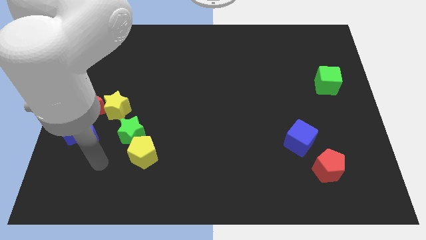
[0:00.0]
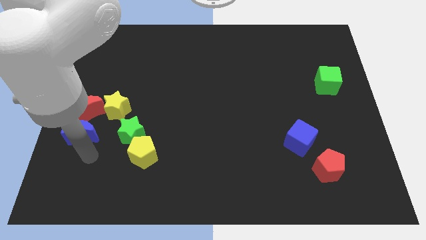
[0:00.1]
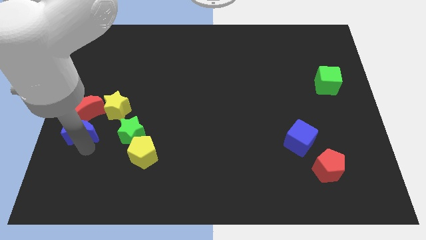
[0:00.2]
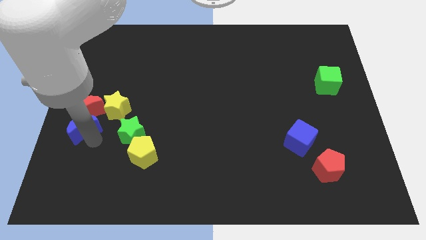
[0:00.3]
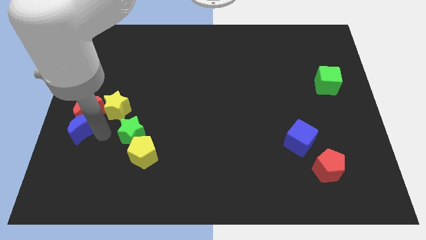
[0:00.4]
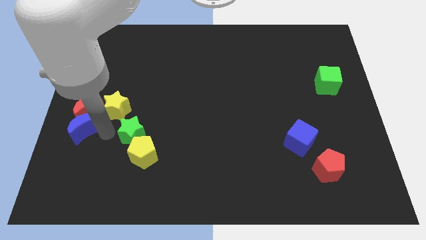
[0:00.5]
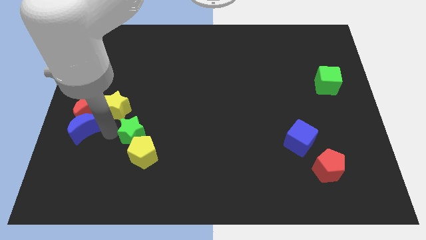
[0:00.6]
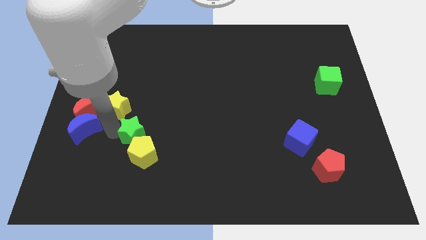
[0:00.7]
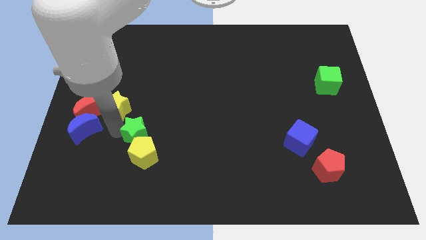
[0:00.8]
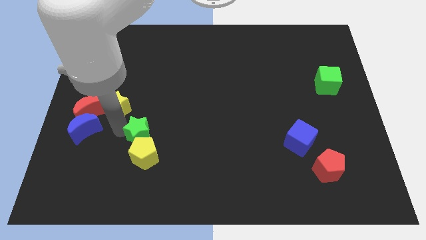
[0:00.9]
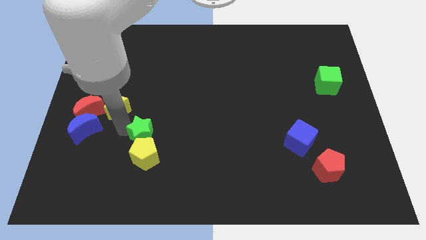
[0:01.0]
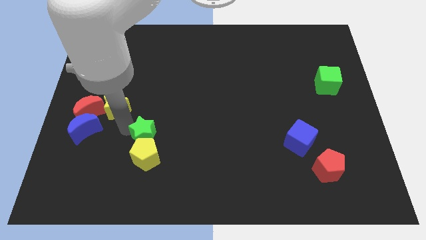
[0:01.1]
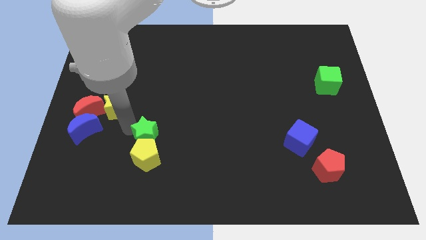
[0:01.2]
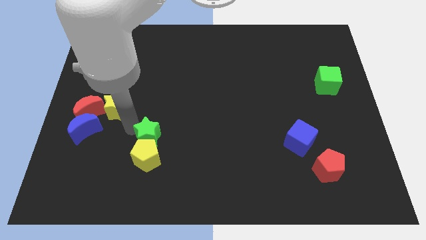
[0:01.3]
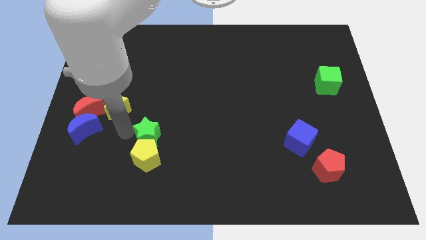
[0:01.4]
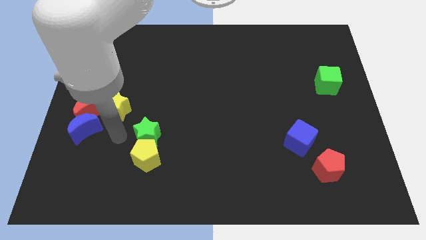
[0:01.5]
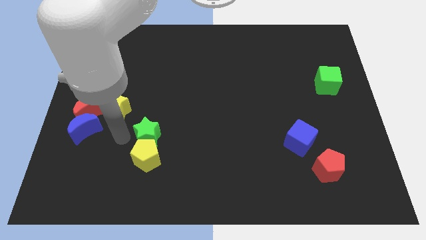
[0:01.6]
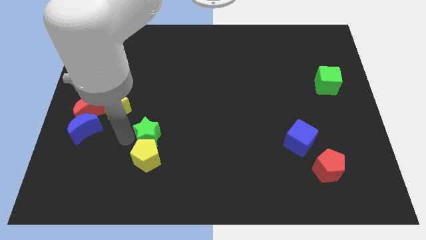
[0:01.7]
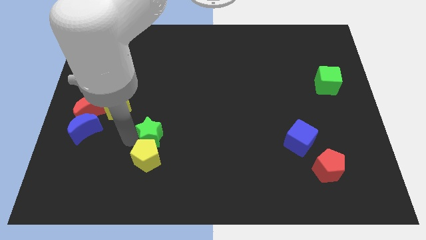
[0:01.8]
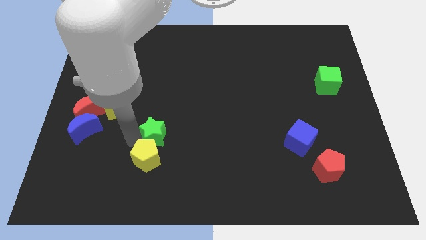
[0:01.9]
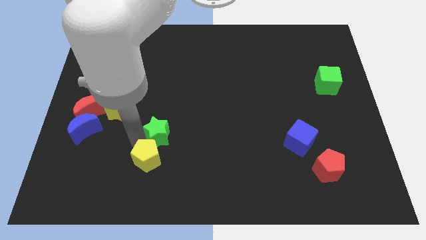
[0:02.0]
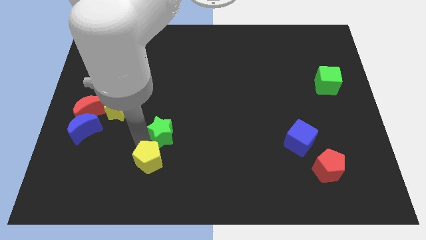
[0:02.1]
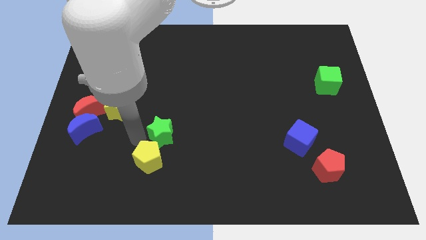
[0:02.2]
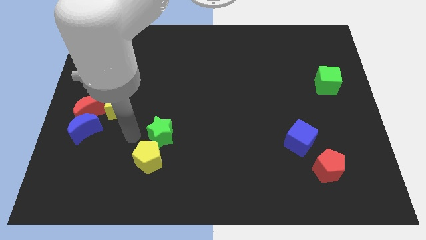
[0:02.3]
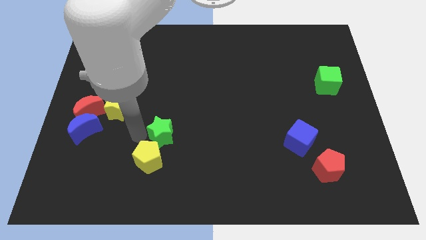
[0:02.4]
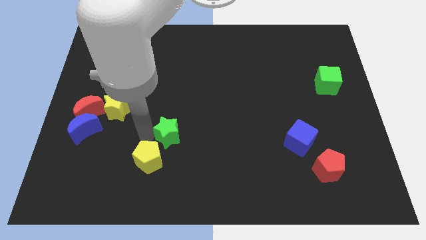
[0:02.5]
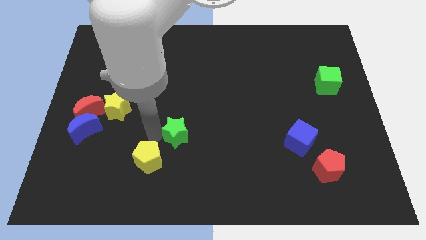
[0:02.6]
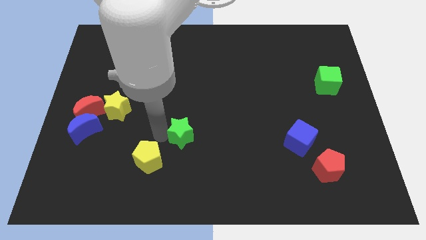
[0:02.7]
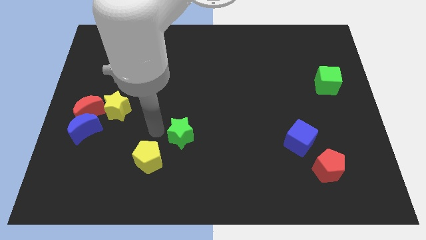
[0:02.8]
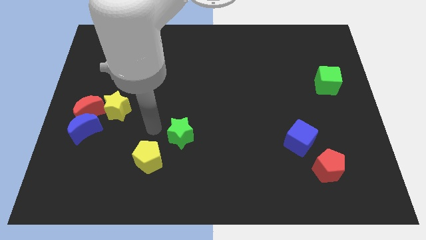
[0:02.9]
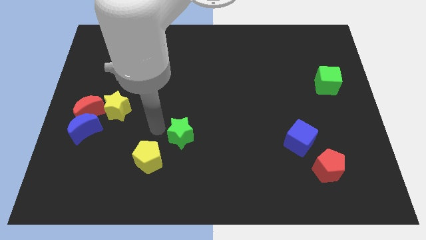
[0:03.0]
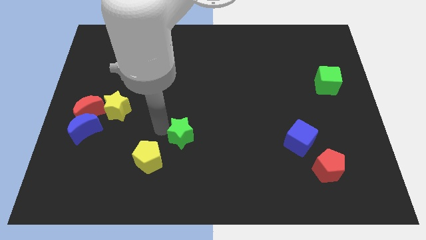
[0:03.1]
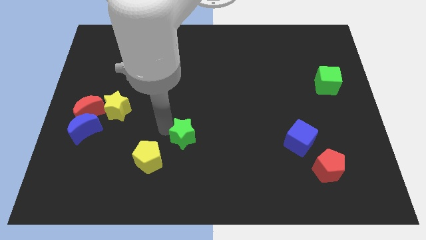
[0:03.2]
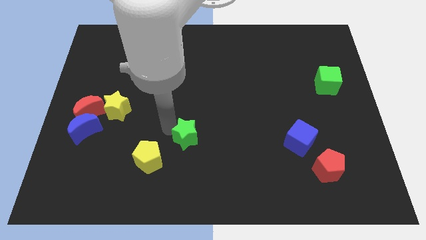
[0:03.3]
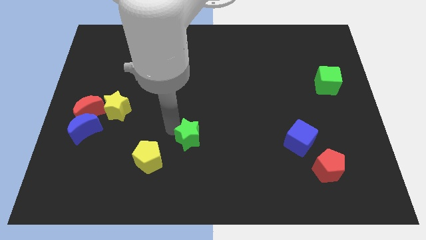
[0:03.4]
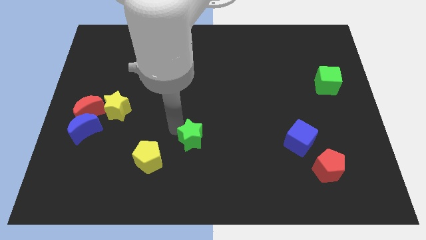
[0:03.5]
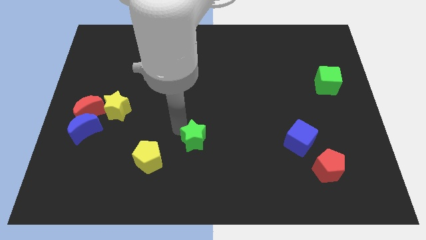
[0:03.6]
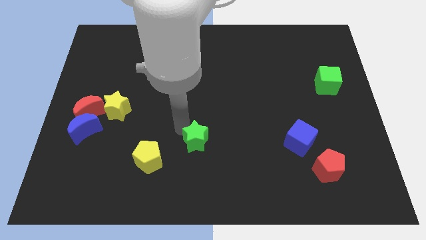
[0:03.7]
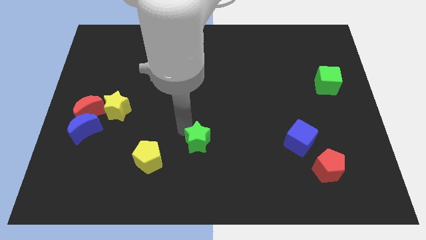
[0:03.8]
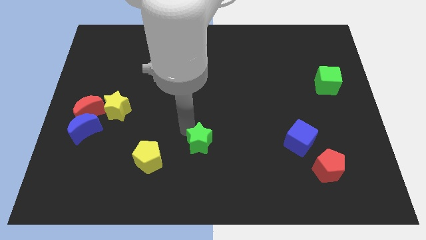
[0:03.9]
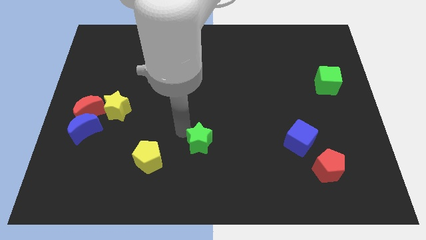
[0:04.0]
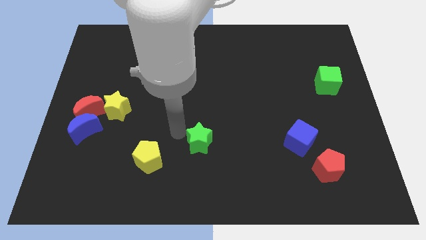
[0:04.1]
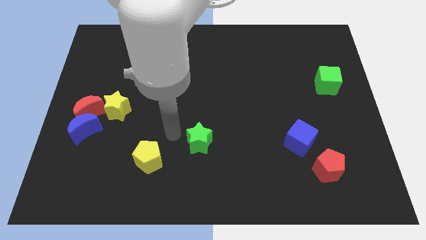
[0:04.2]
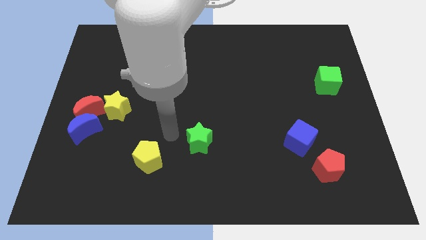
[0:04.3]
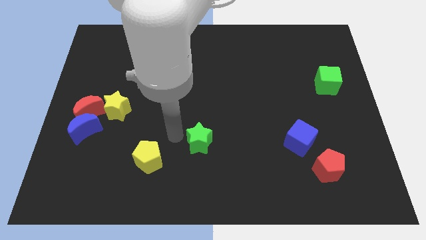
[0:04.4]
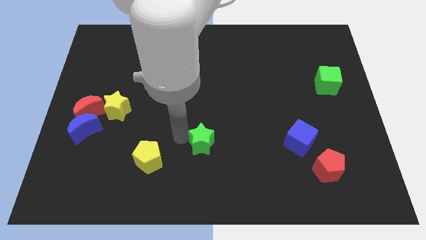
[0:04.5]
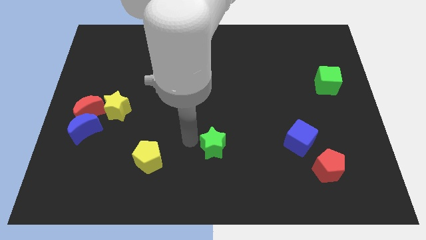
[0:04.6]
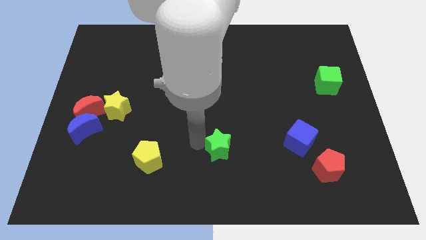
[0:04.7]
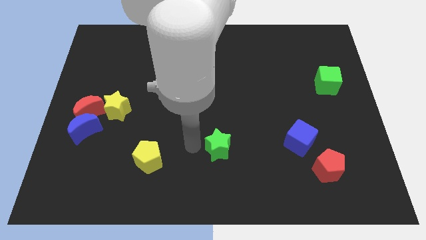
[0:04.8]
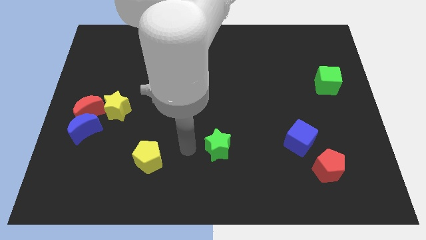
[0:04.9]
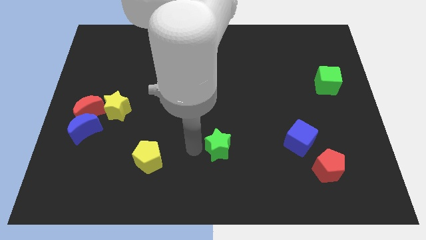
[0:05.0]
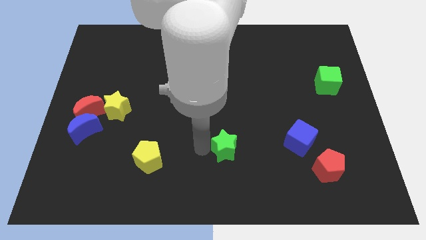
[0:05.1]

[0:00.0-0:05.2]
move the green star to the right

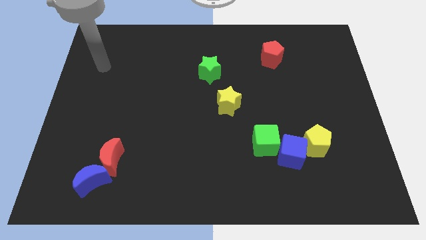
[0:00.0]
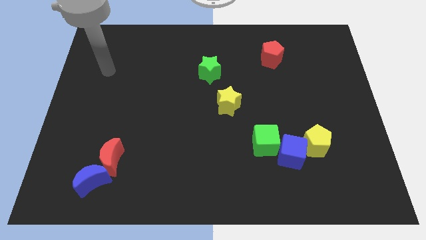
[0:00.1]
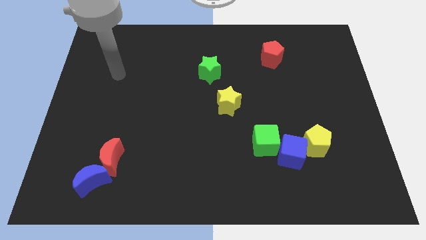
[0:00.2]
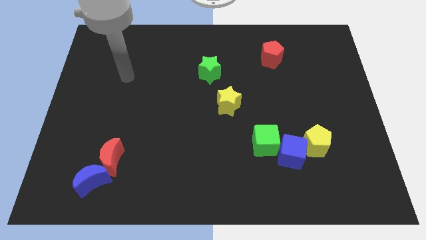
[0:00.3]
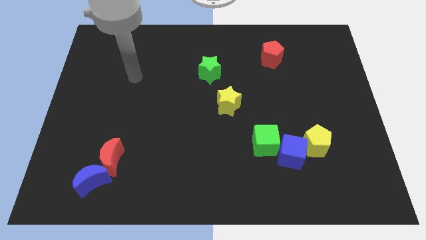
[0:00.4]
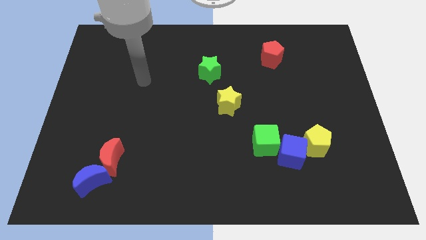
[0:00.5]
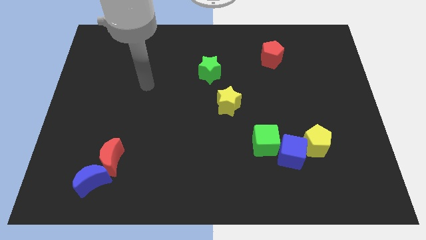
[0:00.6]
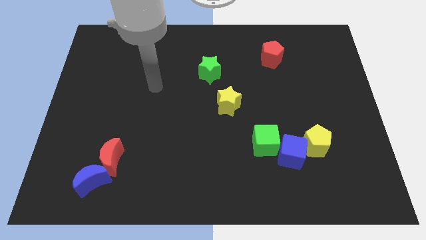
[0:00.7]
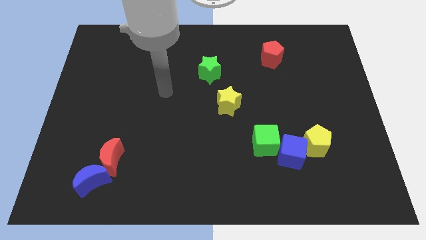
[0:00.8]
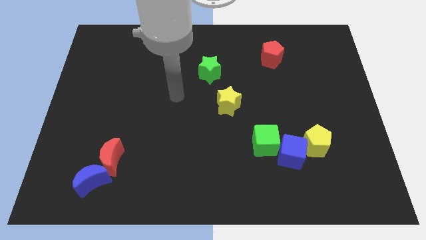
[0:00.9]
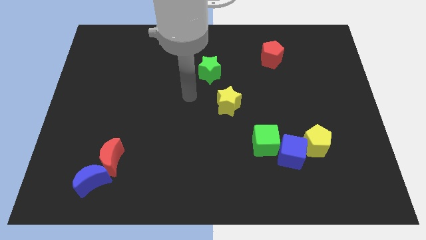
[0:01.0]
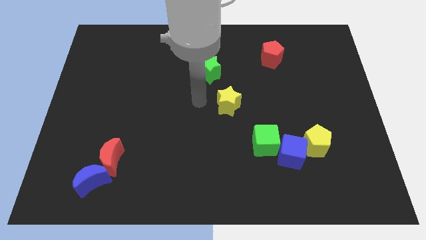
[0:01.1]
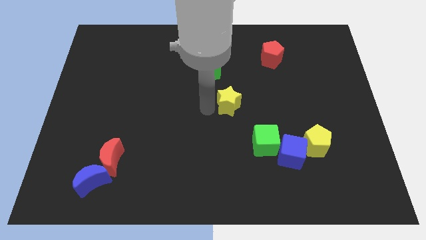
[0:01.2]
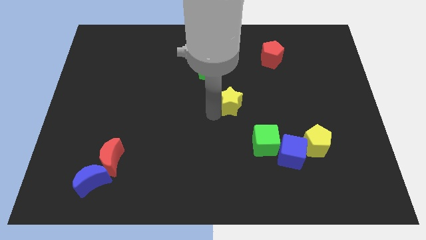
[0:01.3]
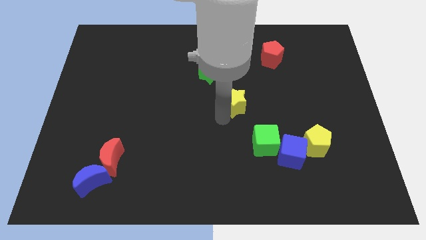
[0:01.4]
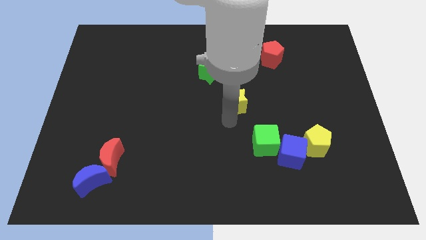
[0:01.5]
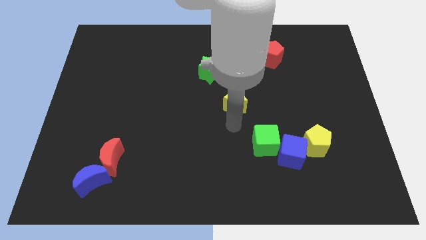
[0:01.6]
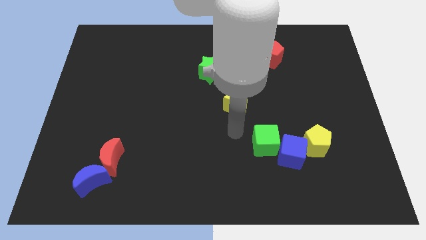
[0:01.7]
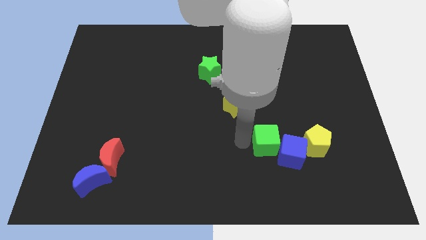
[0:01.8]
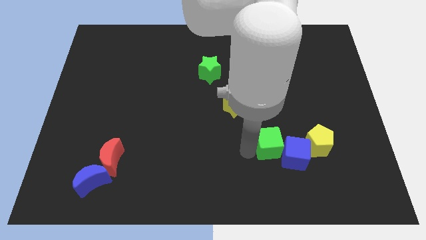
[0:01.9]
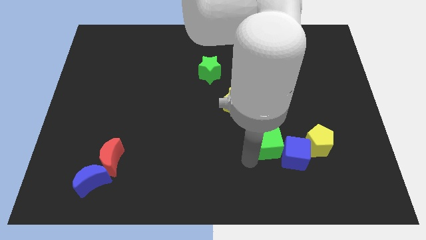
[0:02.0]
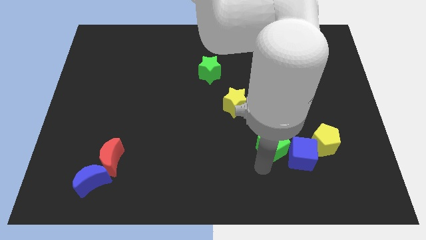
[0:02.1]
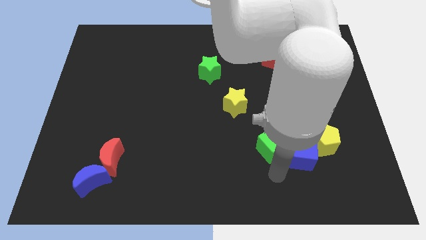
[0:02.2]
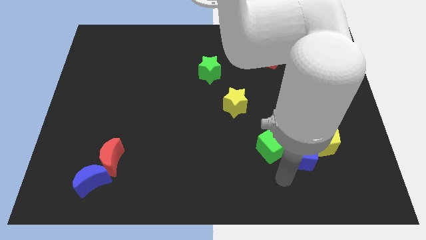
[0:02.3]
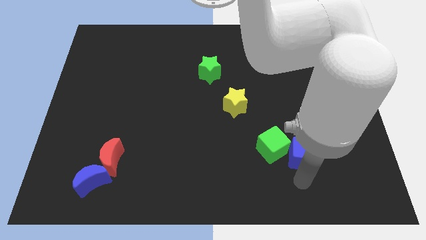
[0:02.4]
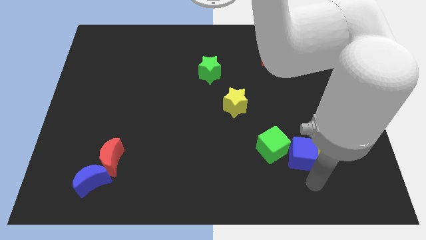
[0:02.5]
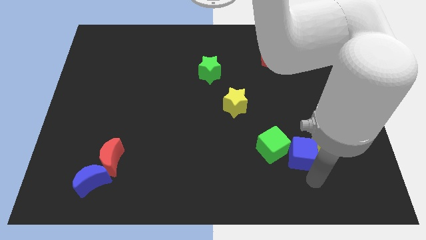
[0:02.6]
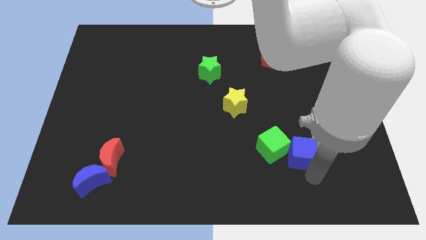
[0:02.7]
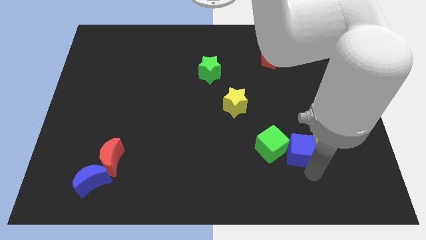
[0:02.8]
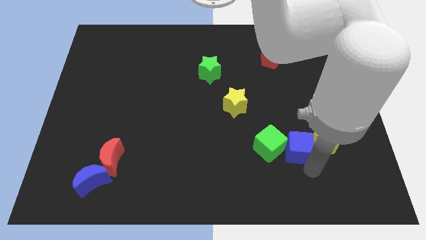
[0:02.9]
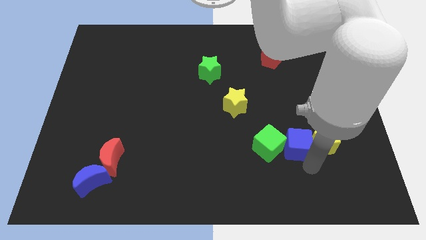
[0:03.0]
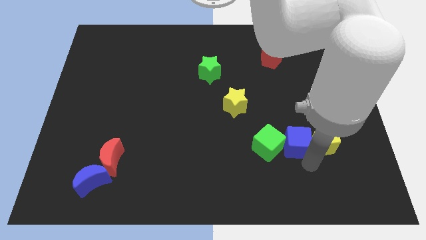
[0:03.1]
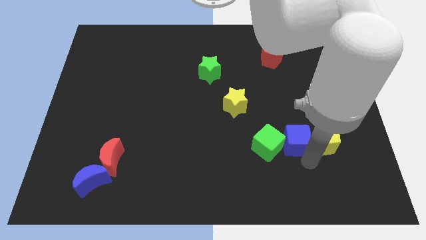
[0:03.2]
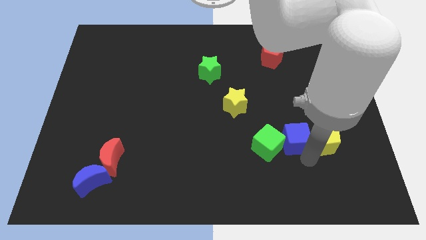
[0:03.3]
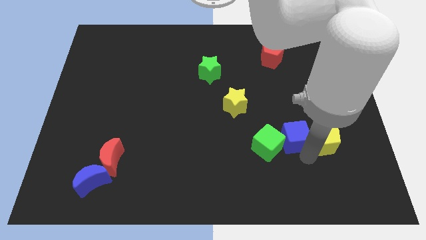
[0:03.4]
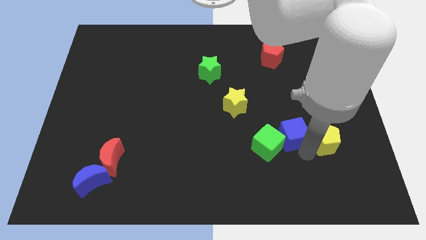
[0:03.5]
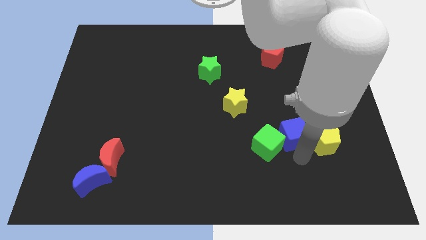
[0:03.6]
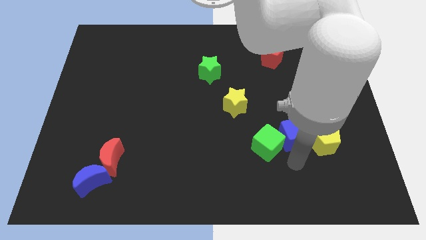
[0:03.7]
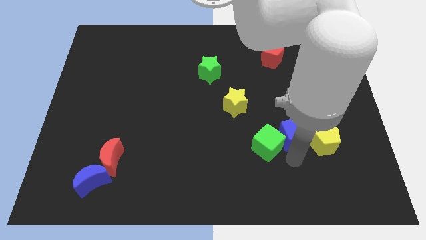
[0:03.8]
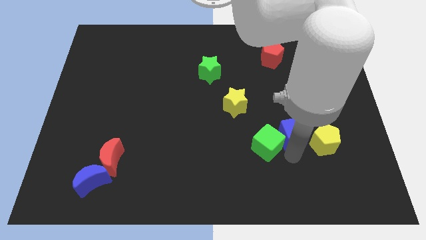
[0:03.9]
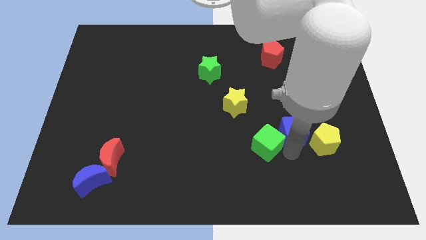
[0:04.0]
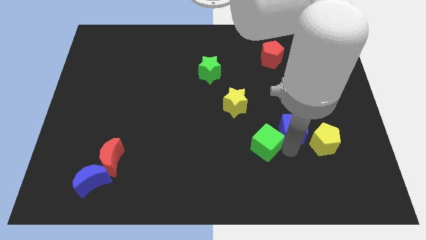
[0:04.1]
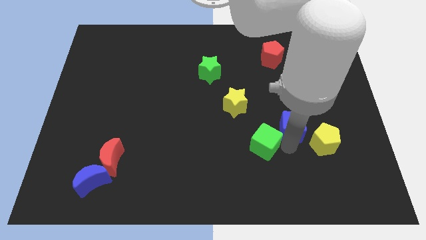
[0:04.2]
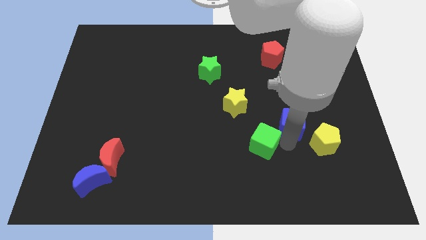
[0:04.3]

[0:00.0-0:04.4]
push the blue cube upwards a little
